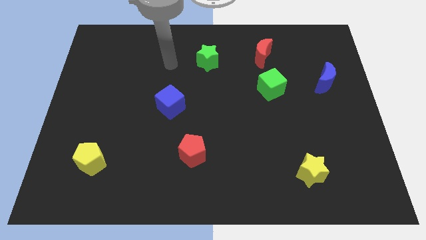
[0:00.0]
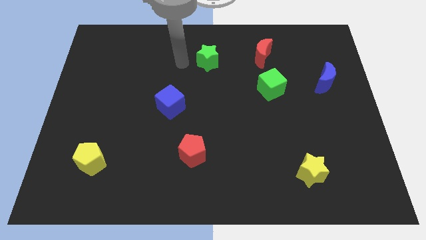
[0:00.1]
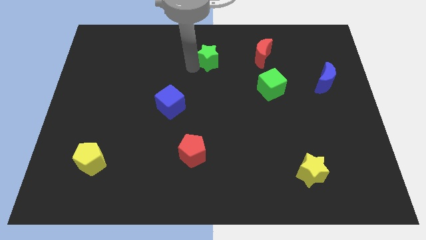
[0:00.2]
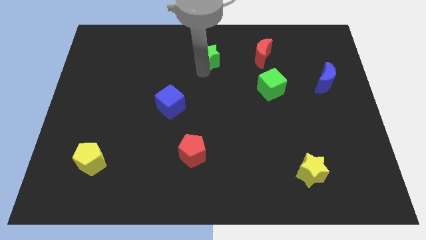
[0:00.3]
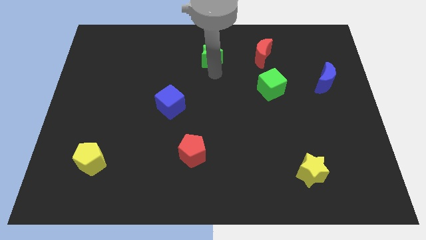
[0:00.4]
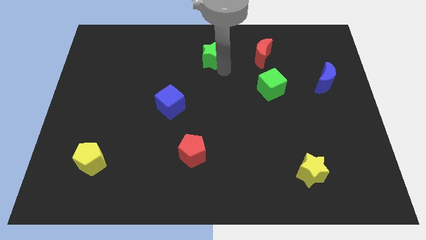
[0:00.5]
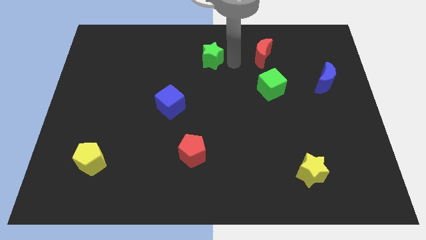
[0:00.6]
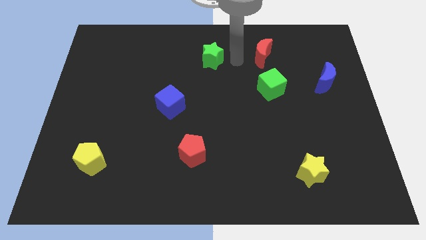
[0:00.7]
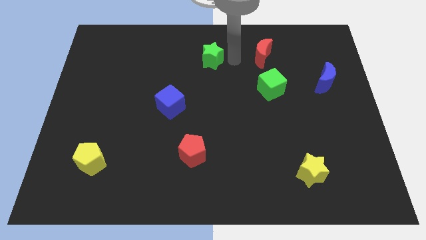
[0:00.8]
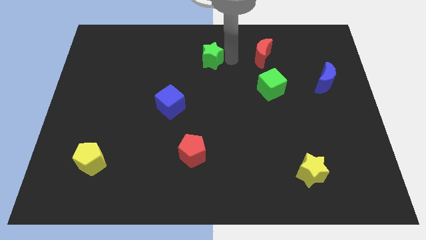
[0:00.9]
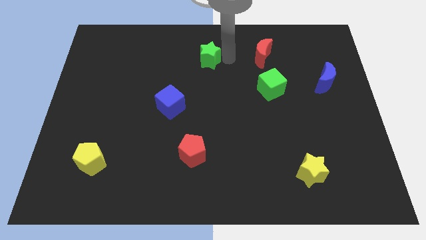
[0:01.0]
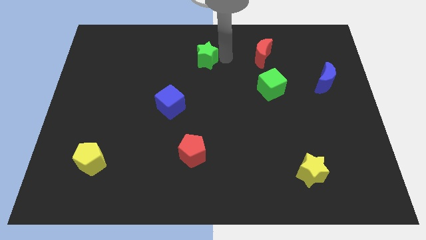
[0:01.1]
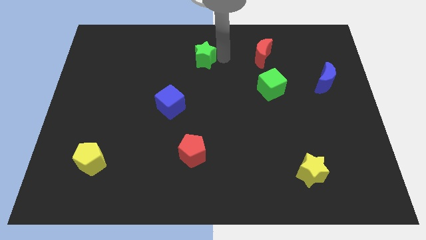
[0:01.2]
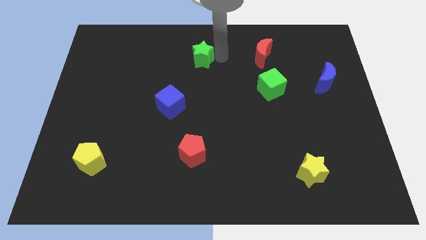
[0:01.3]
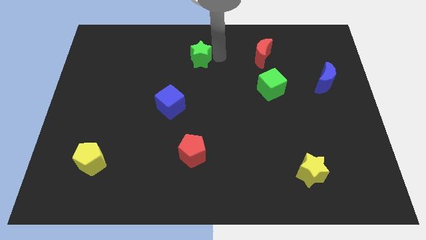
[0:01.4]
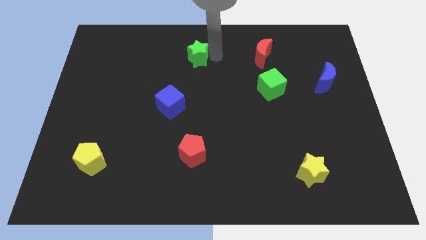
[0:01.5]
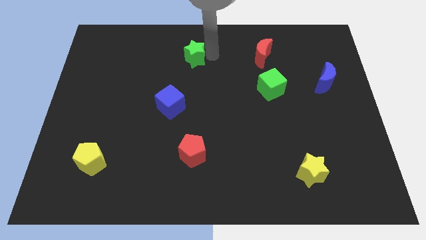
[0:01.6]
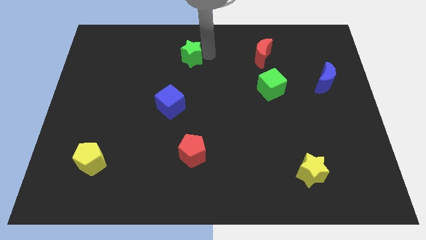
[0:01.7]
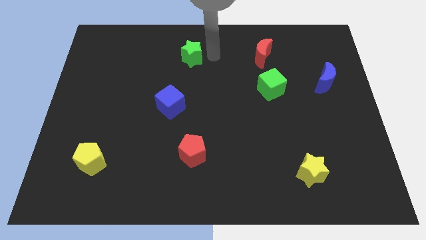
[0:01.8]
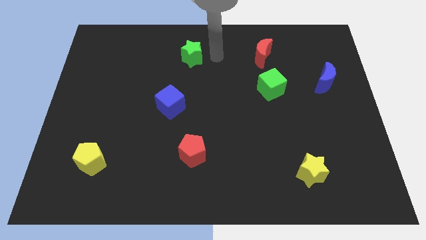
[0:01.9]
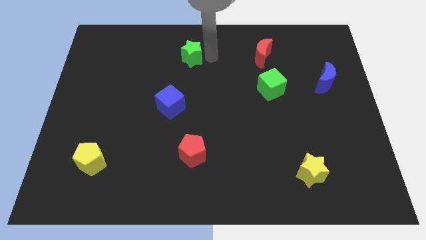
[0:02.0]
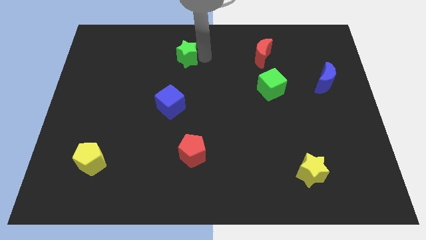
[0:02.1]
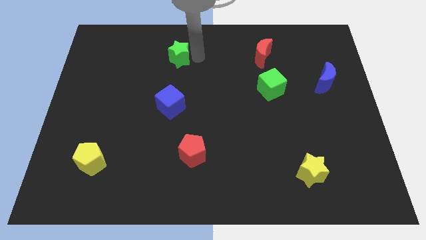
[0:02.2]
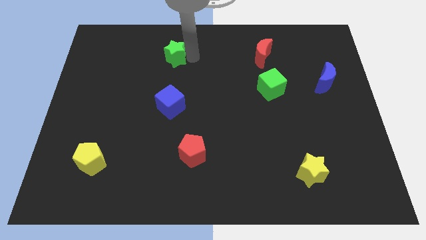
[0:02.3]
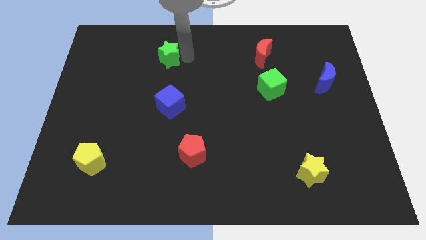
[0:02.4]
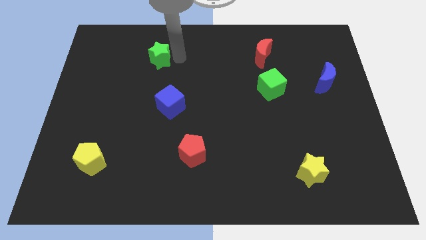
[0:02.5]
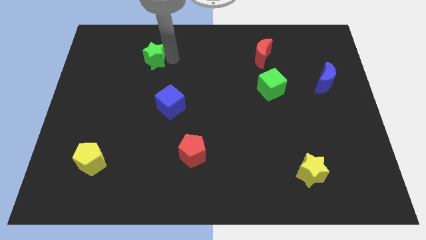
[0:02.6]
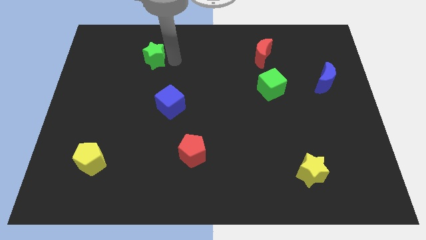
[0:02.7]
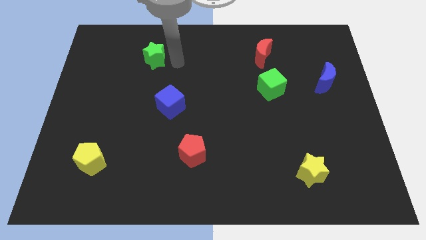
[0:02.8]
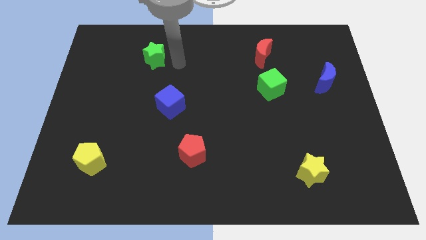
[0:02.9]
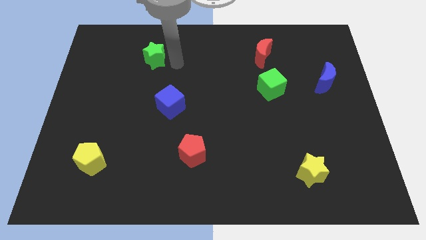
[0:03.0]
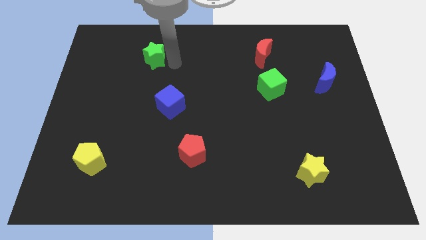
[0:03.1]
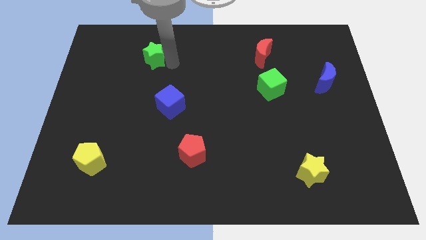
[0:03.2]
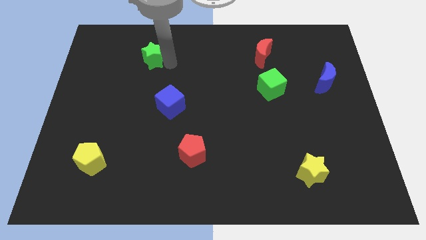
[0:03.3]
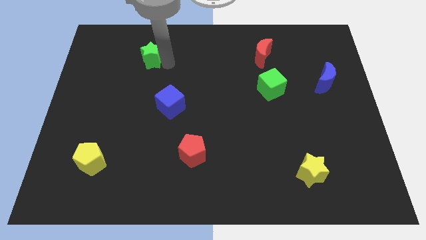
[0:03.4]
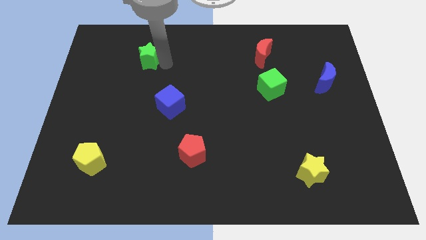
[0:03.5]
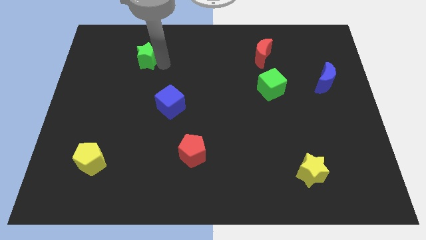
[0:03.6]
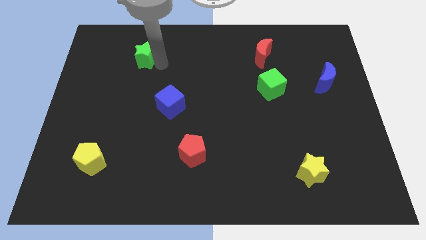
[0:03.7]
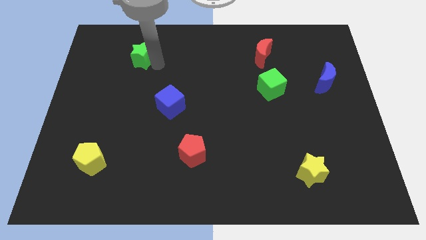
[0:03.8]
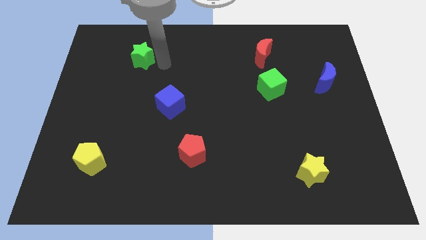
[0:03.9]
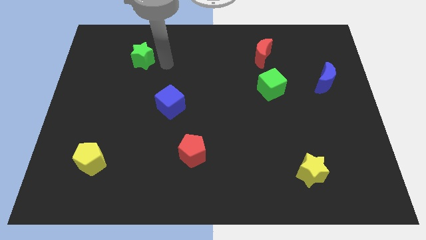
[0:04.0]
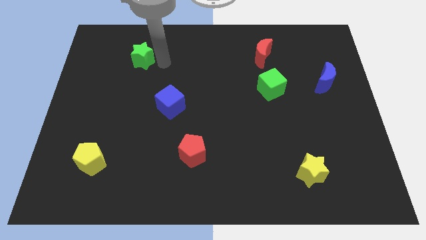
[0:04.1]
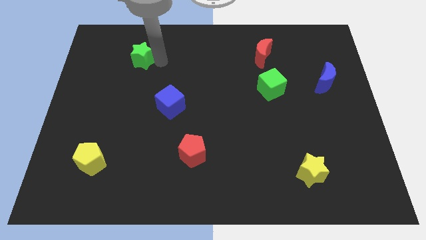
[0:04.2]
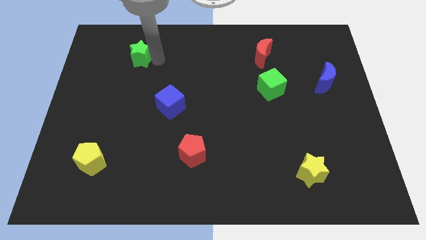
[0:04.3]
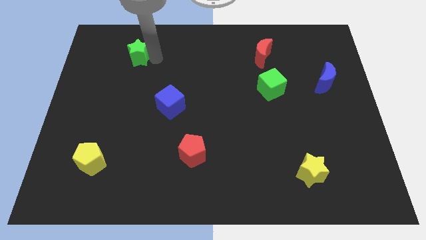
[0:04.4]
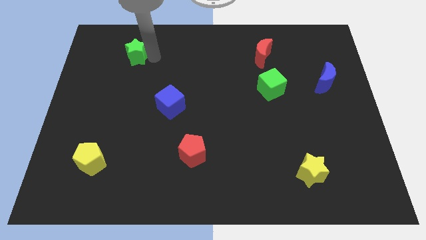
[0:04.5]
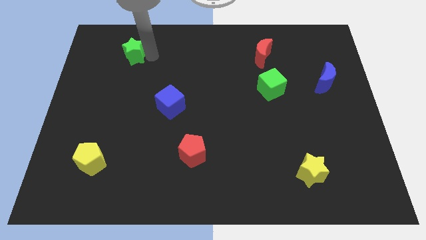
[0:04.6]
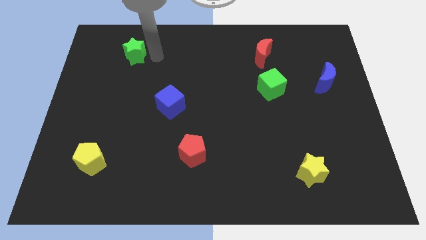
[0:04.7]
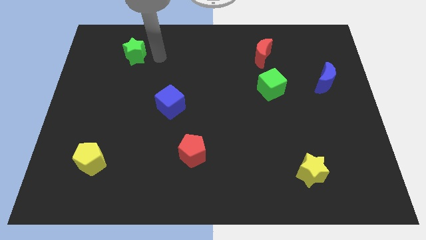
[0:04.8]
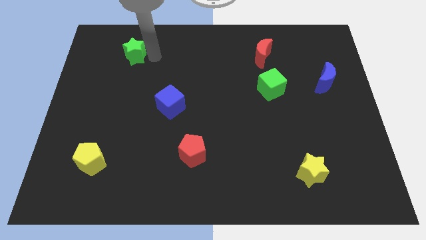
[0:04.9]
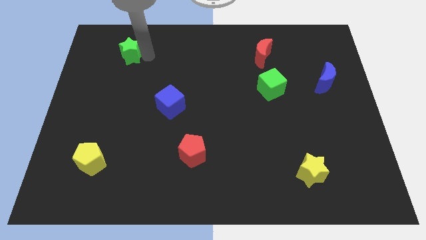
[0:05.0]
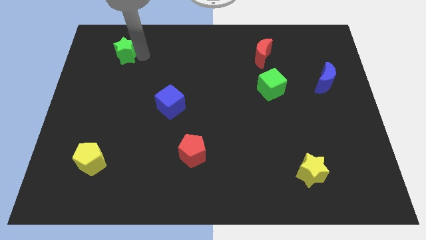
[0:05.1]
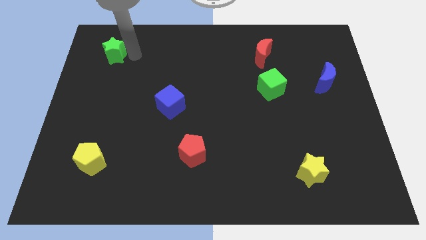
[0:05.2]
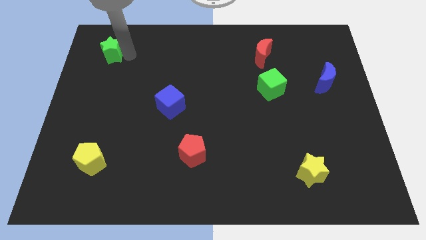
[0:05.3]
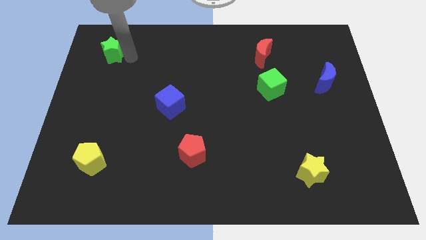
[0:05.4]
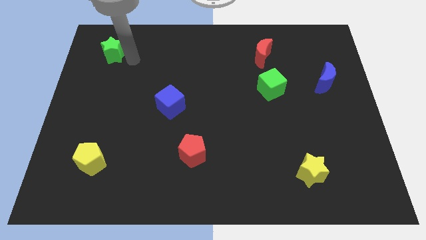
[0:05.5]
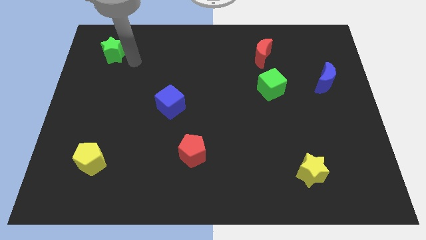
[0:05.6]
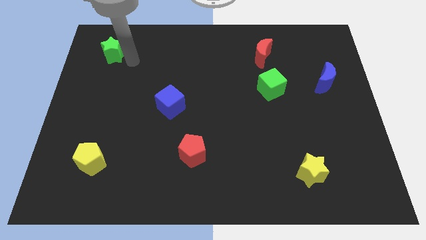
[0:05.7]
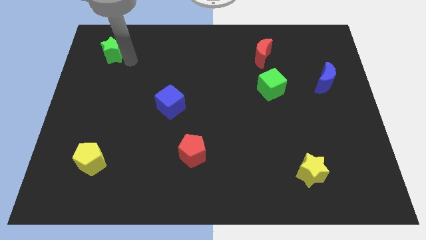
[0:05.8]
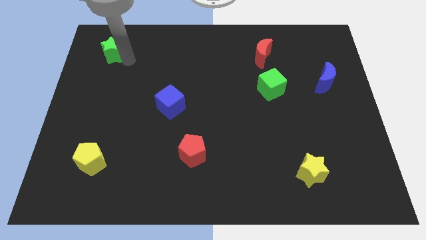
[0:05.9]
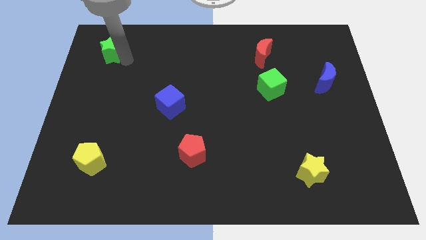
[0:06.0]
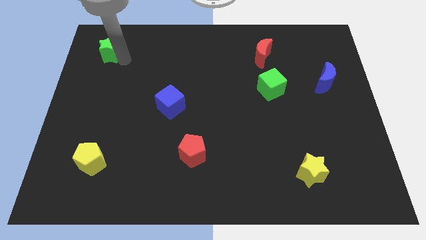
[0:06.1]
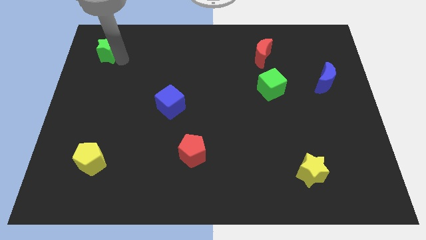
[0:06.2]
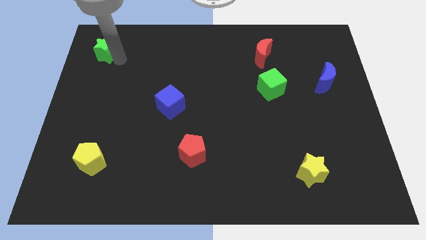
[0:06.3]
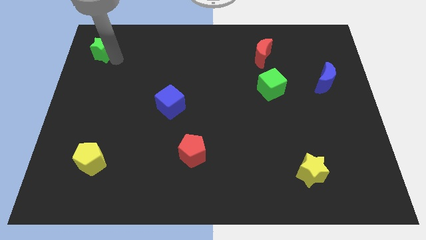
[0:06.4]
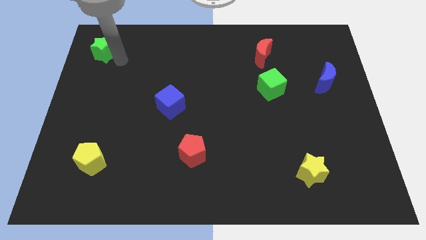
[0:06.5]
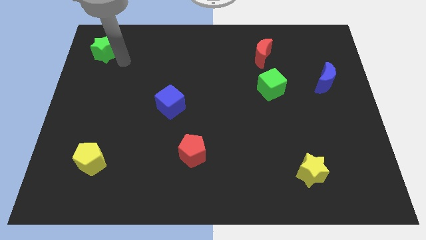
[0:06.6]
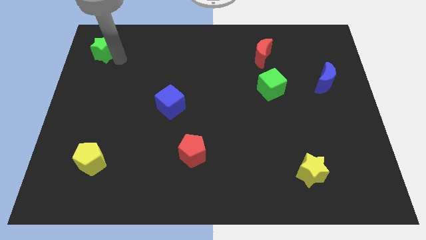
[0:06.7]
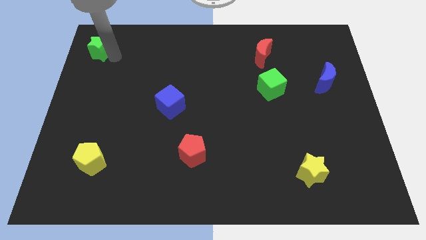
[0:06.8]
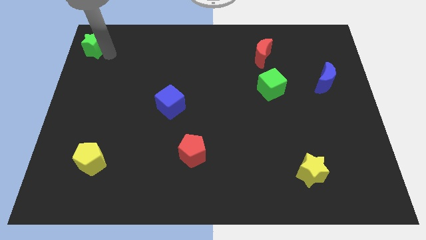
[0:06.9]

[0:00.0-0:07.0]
push the green star to the upper left corner
